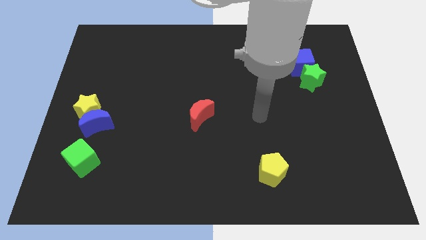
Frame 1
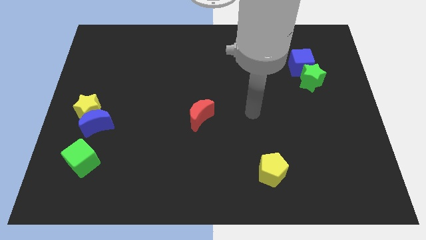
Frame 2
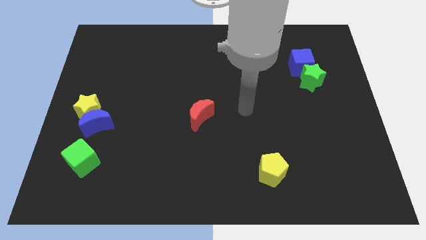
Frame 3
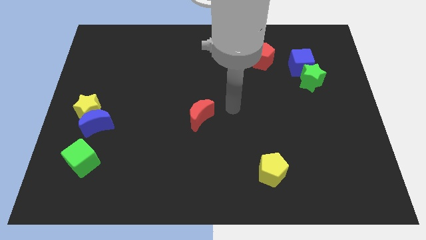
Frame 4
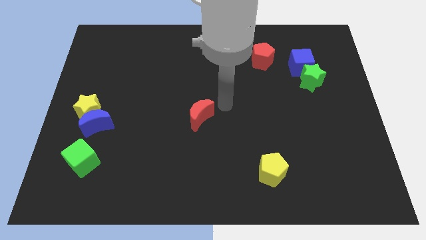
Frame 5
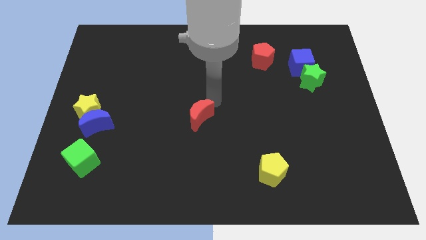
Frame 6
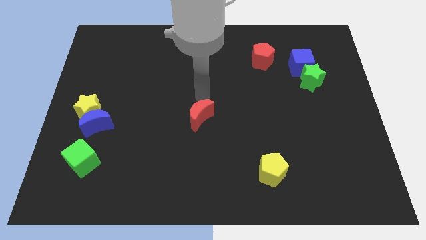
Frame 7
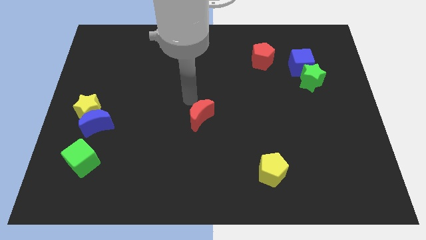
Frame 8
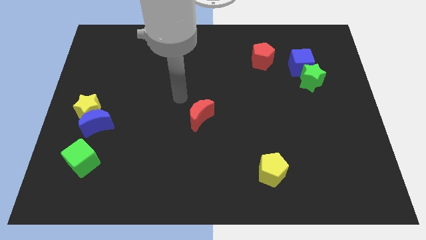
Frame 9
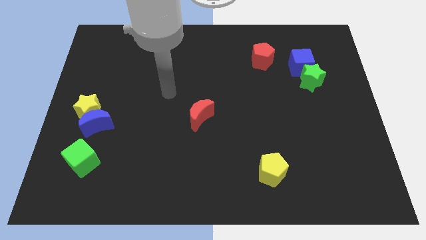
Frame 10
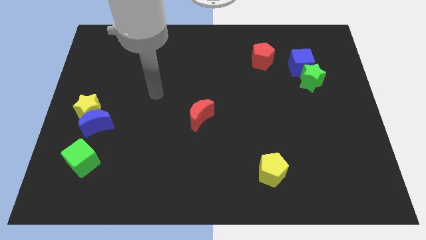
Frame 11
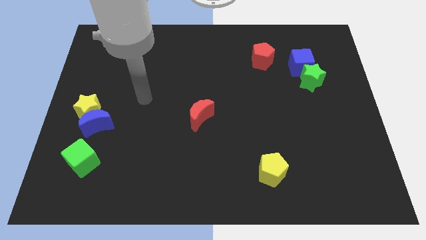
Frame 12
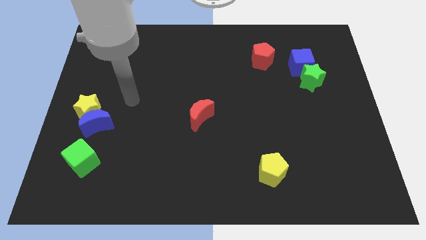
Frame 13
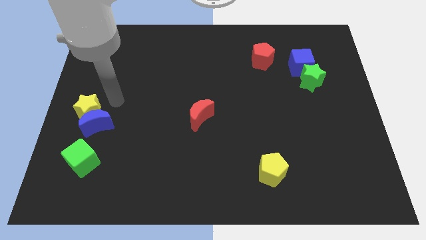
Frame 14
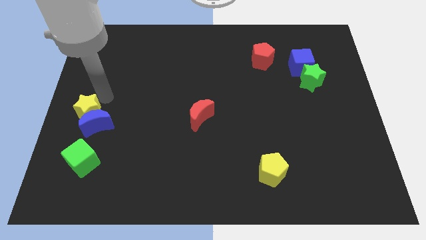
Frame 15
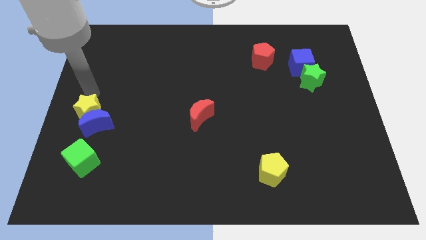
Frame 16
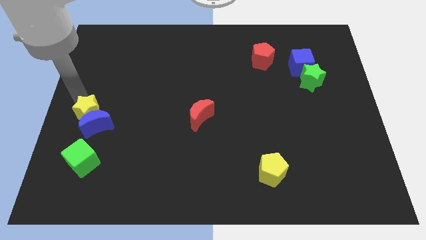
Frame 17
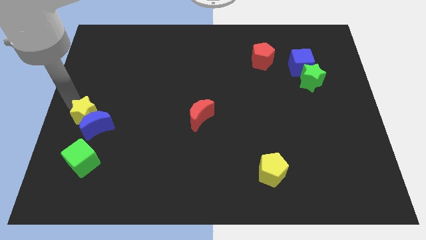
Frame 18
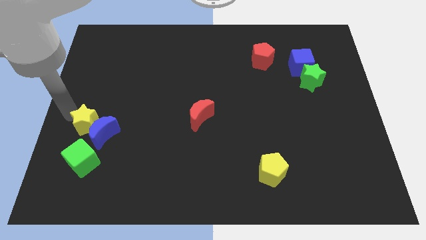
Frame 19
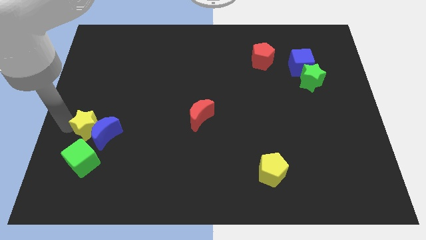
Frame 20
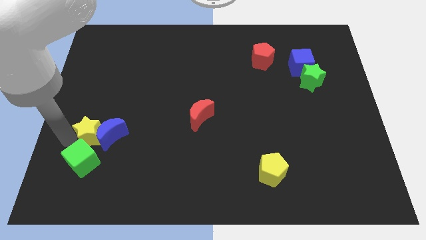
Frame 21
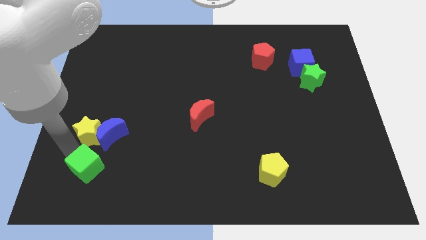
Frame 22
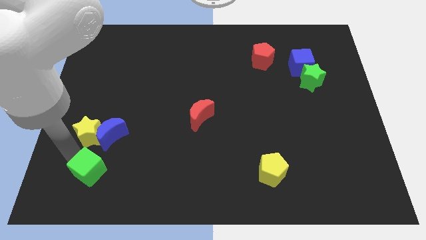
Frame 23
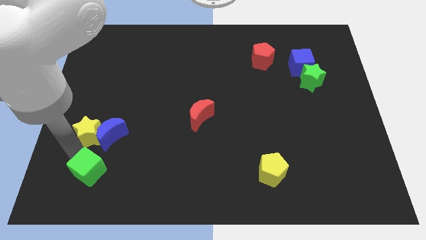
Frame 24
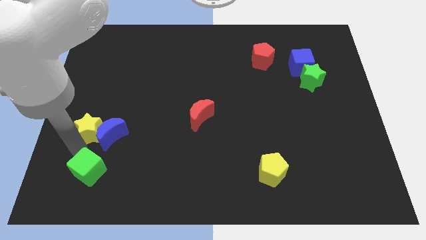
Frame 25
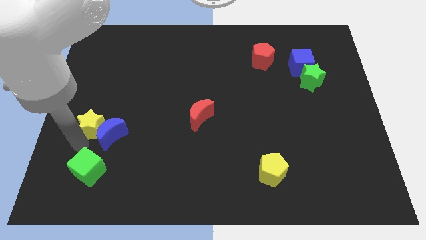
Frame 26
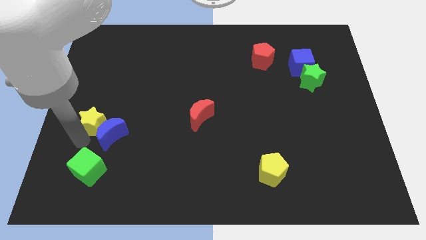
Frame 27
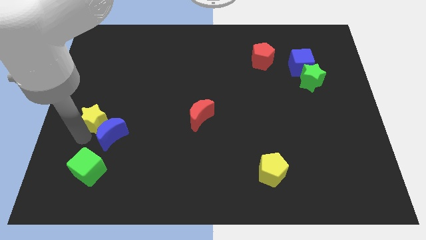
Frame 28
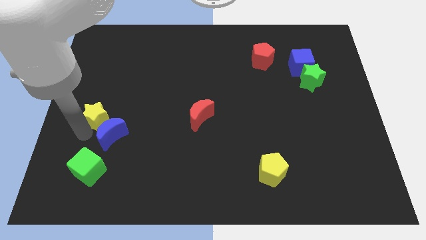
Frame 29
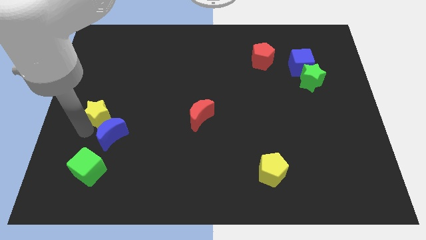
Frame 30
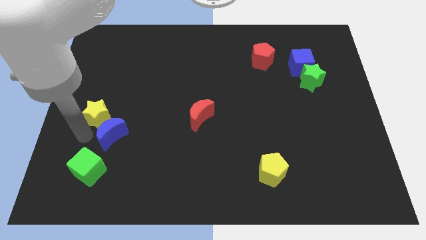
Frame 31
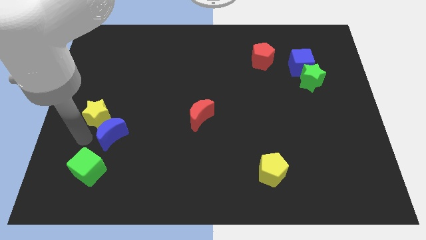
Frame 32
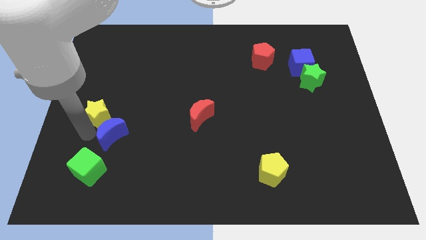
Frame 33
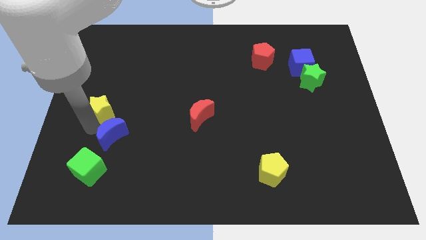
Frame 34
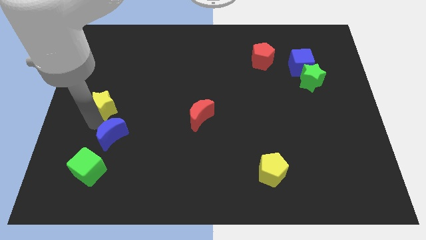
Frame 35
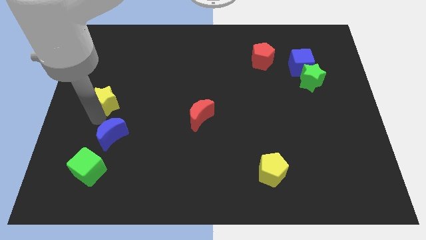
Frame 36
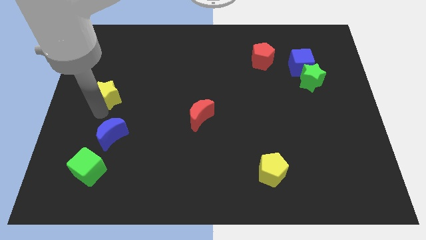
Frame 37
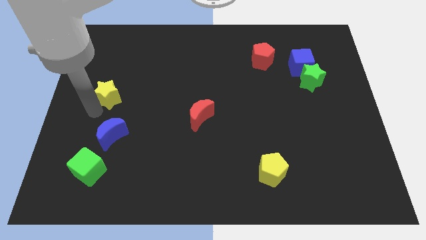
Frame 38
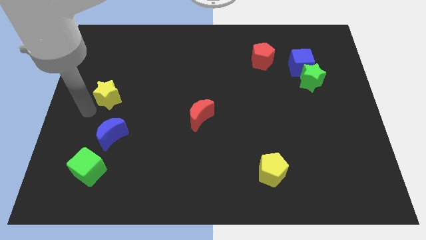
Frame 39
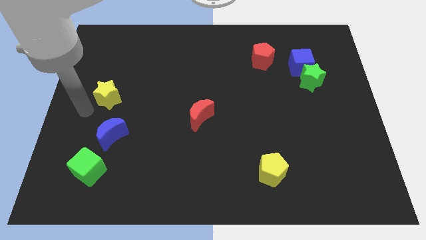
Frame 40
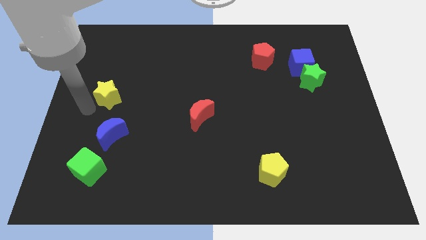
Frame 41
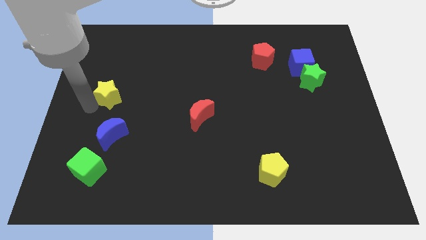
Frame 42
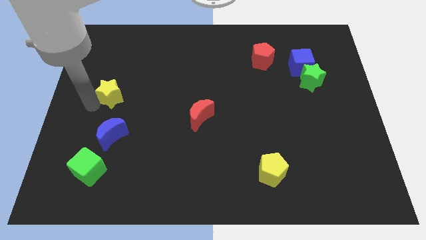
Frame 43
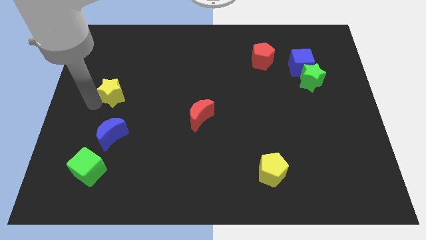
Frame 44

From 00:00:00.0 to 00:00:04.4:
move the yellow star somewhat up and then to the right

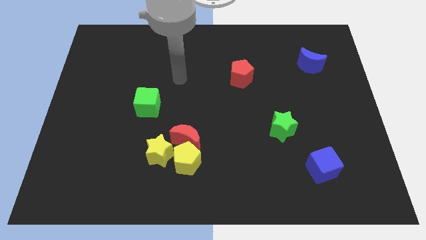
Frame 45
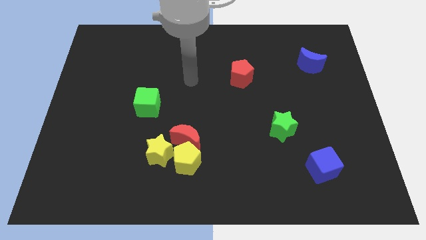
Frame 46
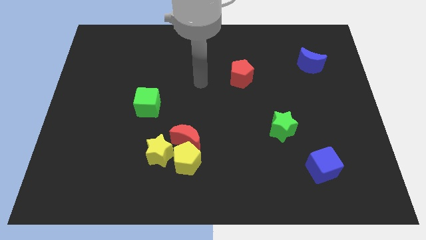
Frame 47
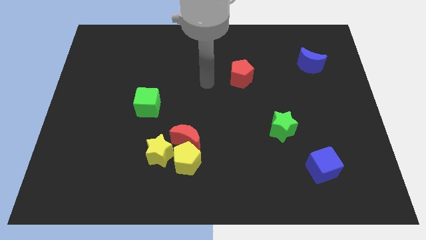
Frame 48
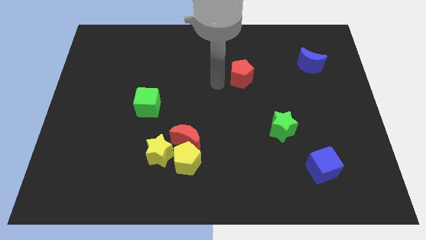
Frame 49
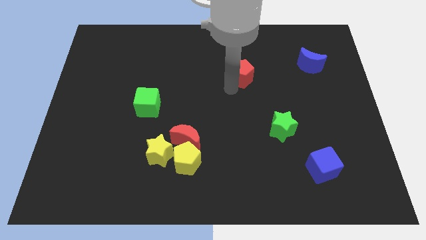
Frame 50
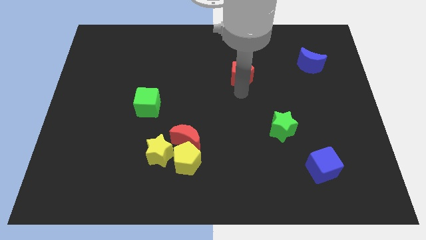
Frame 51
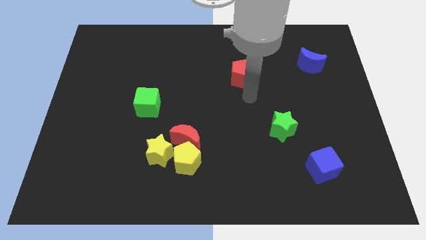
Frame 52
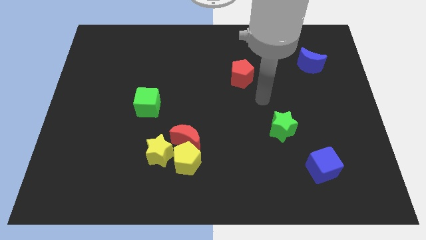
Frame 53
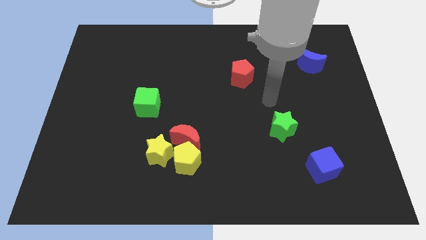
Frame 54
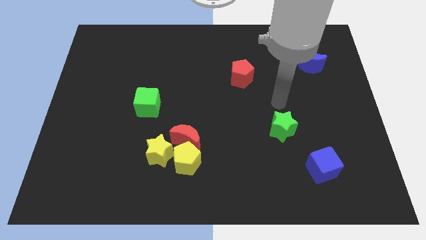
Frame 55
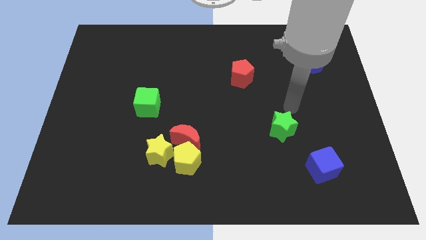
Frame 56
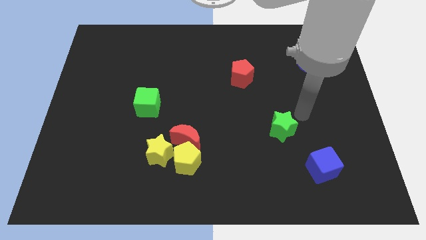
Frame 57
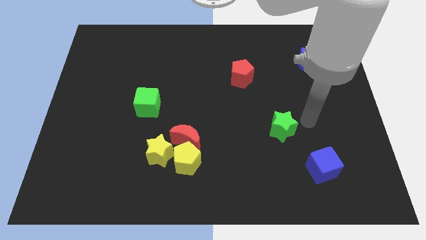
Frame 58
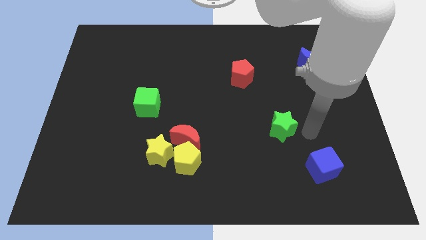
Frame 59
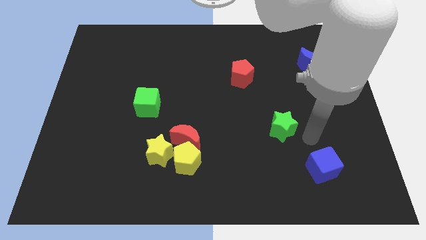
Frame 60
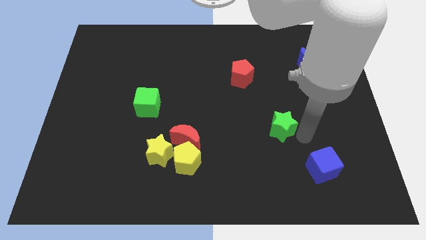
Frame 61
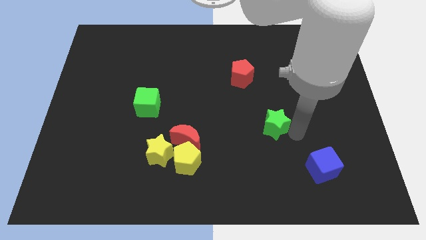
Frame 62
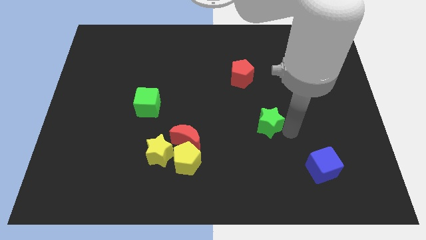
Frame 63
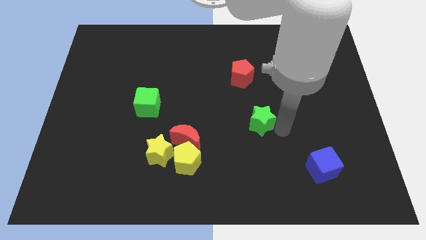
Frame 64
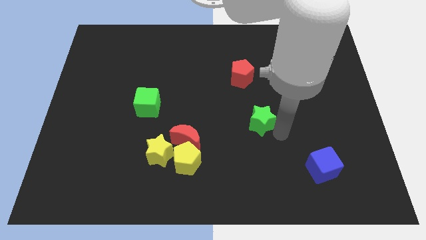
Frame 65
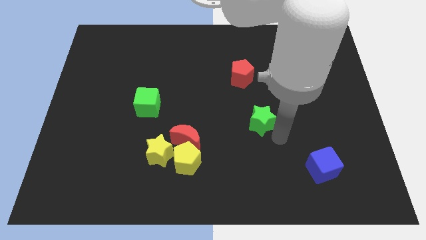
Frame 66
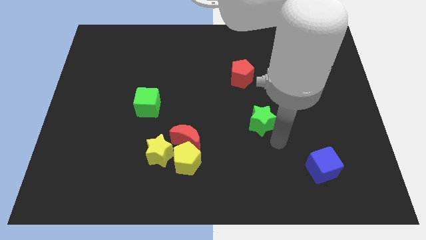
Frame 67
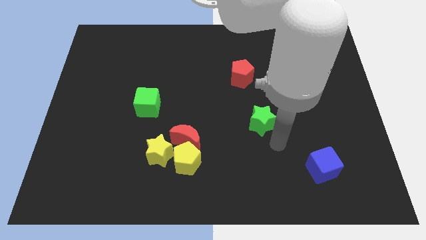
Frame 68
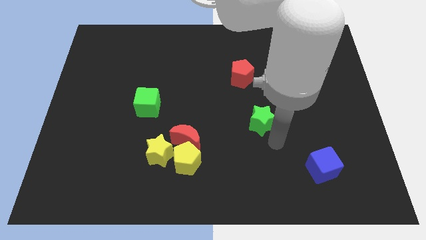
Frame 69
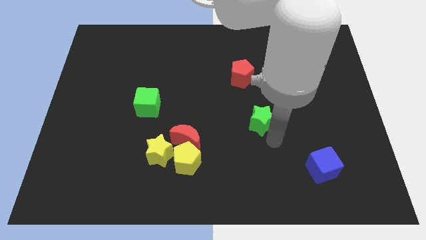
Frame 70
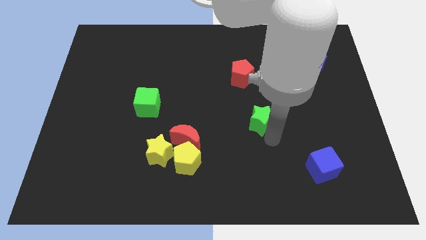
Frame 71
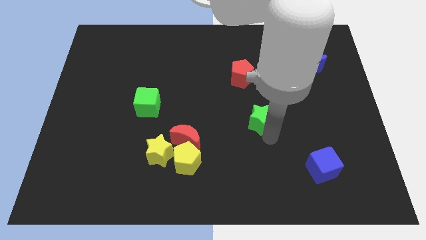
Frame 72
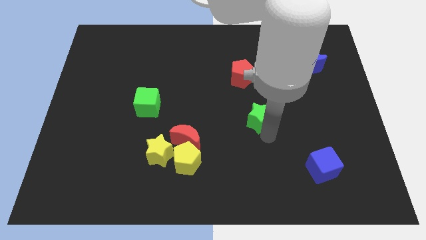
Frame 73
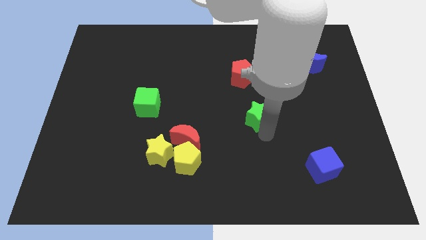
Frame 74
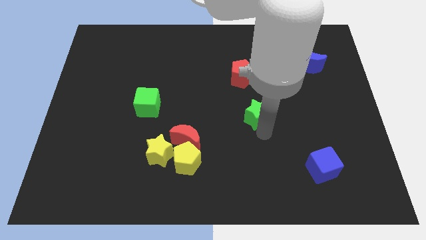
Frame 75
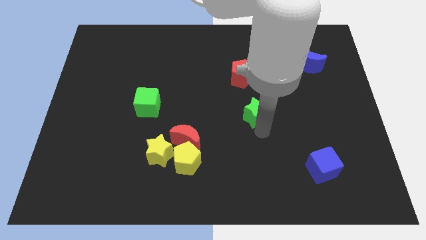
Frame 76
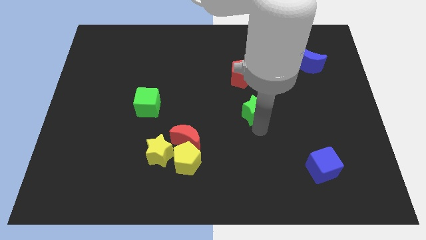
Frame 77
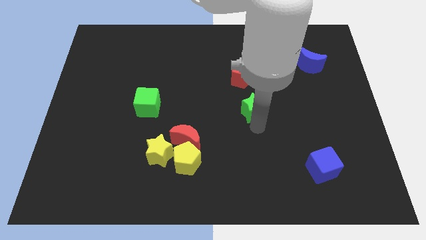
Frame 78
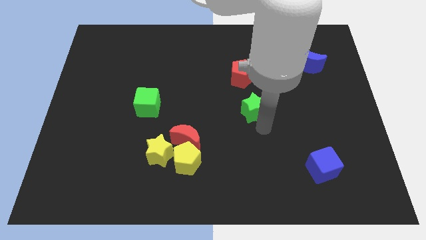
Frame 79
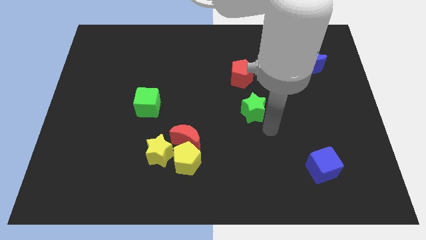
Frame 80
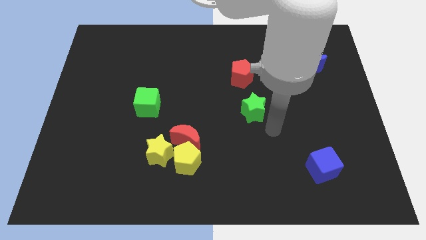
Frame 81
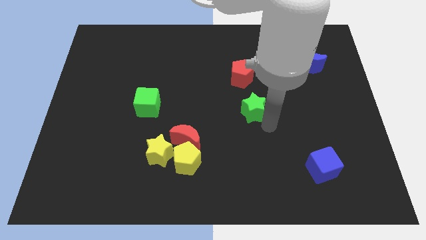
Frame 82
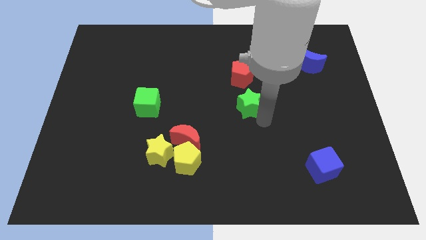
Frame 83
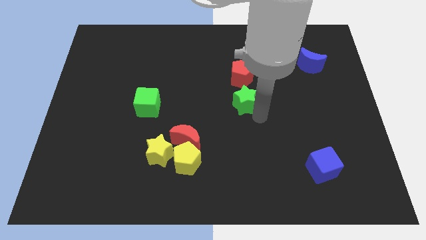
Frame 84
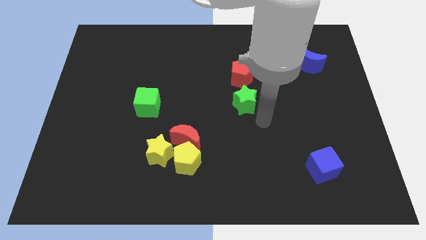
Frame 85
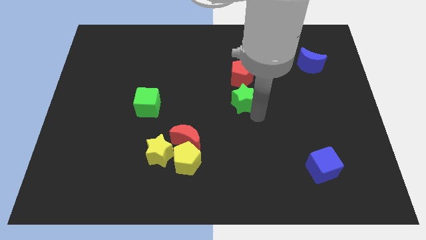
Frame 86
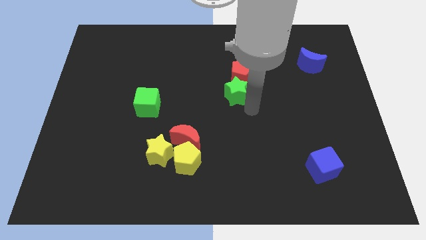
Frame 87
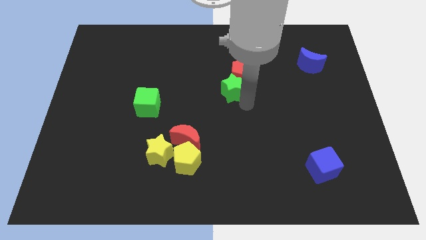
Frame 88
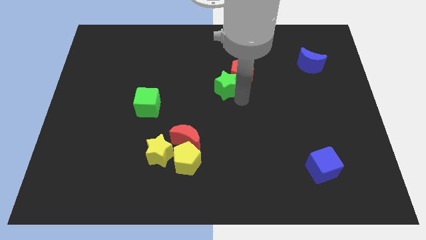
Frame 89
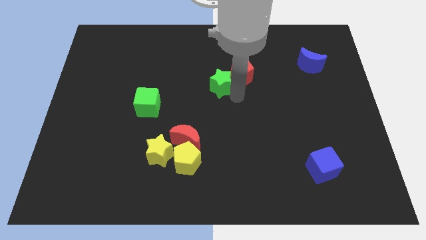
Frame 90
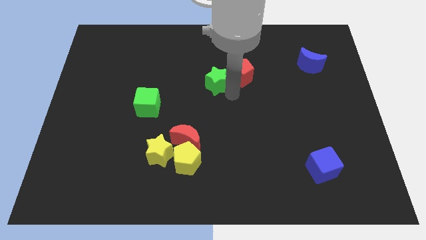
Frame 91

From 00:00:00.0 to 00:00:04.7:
push the green star upwards and to the left
